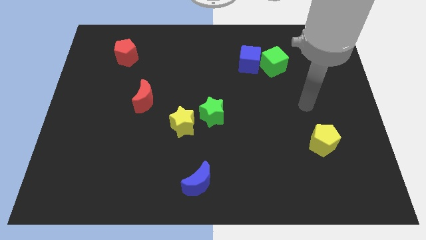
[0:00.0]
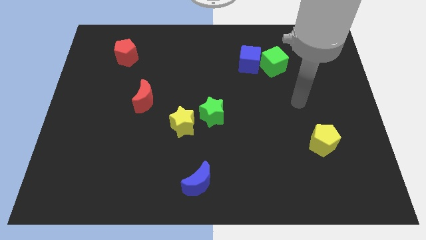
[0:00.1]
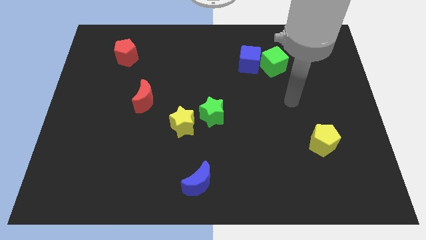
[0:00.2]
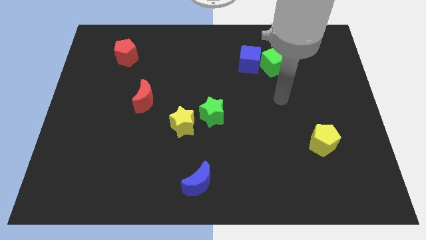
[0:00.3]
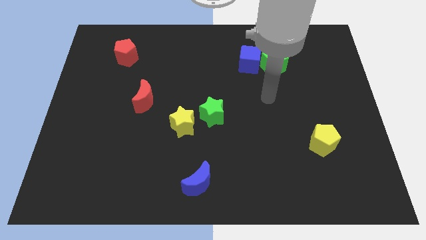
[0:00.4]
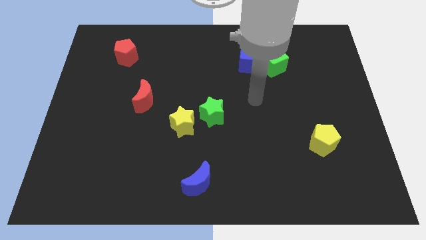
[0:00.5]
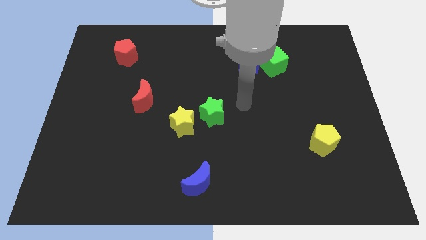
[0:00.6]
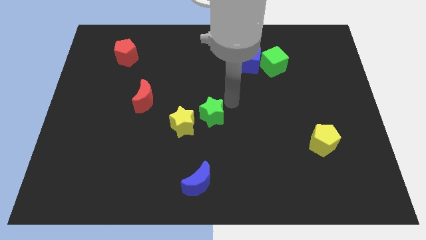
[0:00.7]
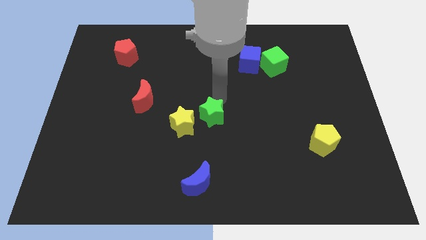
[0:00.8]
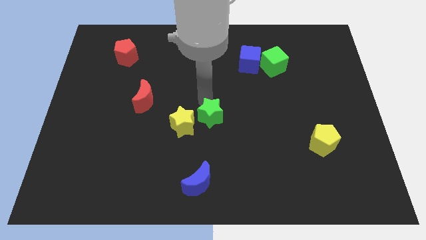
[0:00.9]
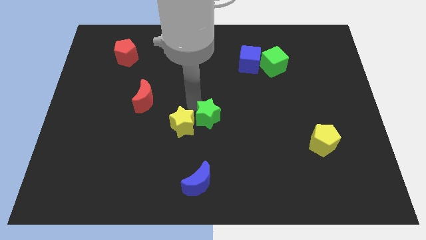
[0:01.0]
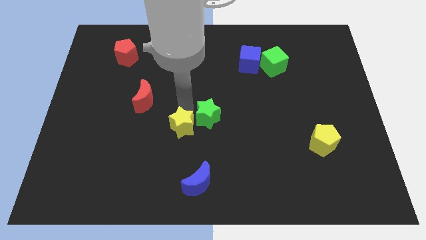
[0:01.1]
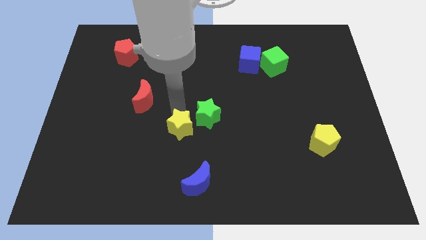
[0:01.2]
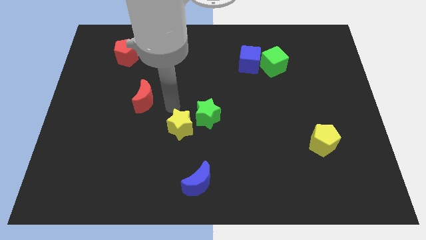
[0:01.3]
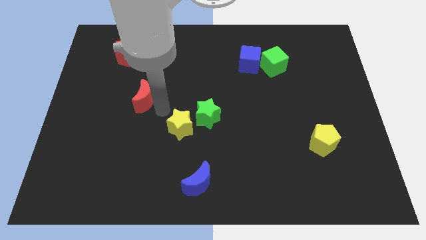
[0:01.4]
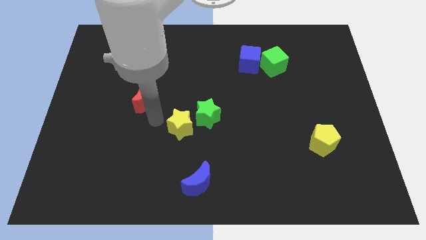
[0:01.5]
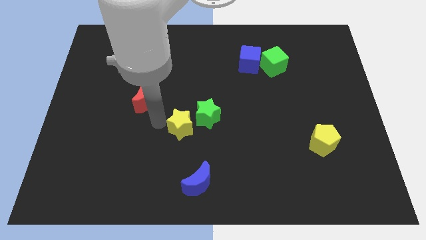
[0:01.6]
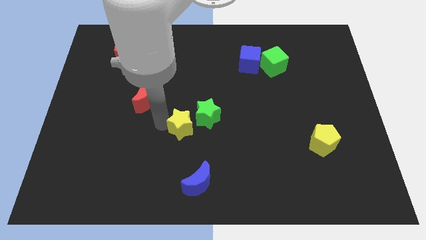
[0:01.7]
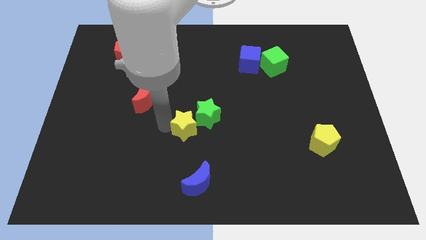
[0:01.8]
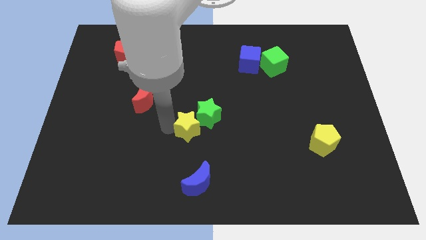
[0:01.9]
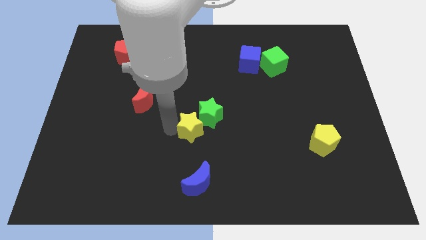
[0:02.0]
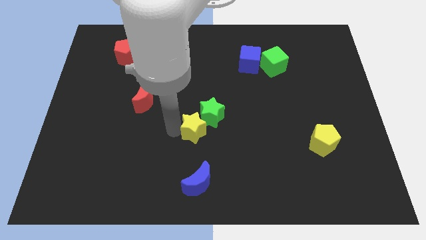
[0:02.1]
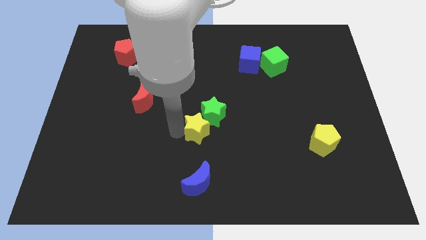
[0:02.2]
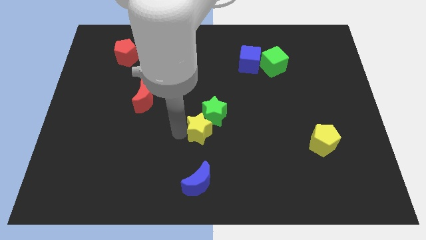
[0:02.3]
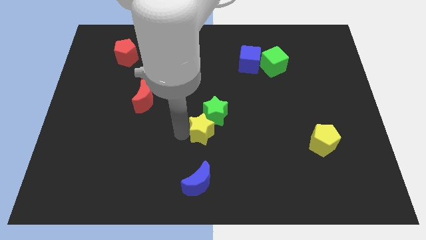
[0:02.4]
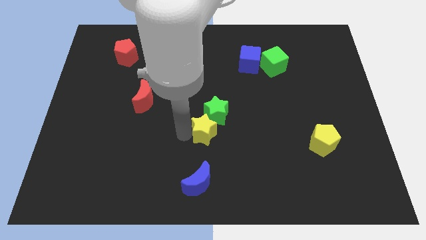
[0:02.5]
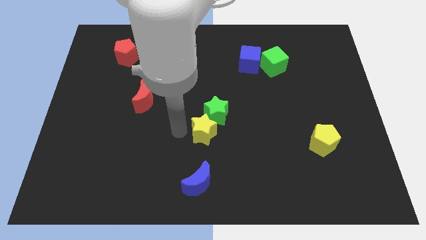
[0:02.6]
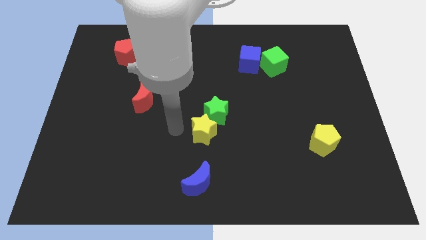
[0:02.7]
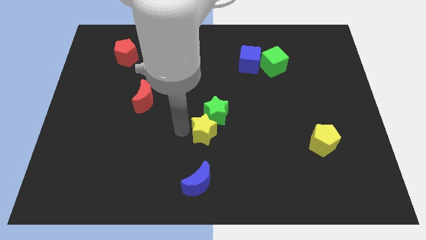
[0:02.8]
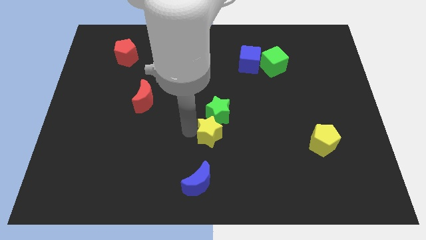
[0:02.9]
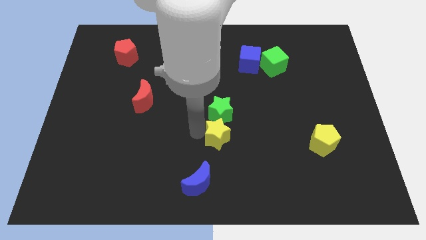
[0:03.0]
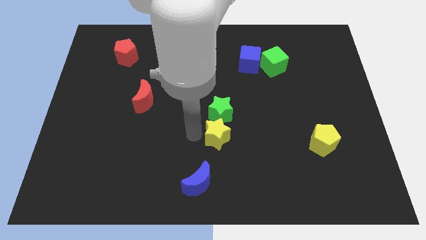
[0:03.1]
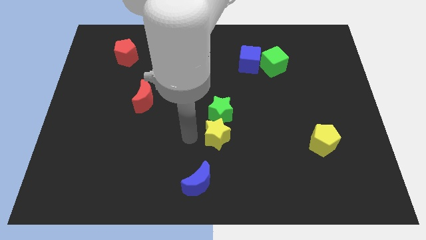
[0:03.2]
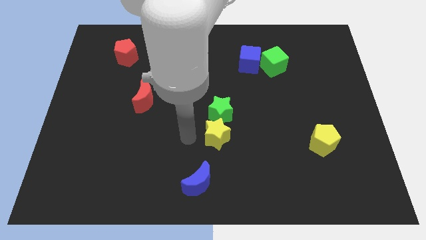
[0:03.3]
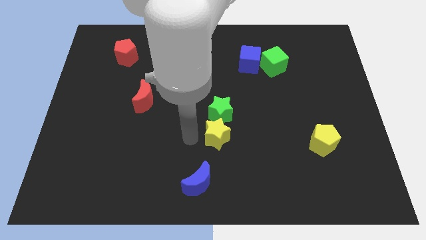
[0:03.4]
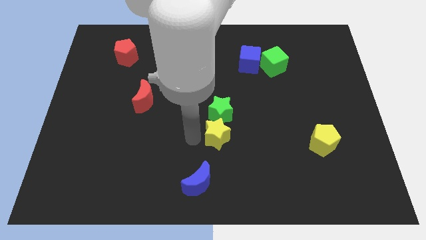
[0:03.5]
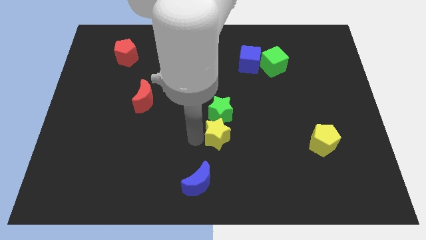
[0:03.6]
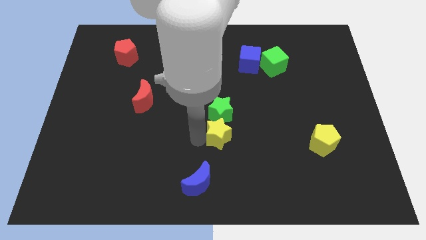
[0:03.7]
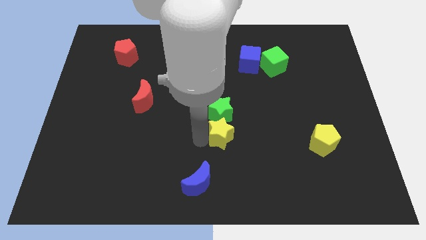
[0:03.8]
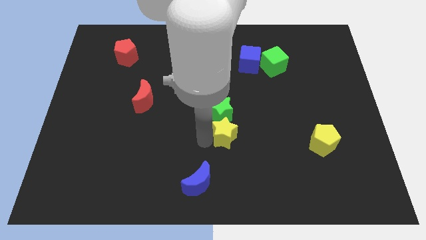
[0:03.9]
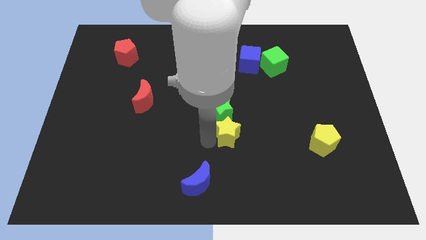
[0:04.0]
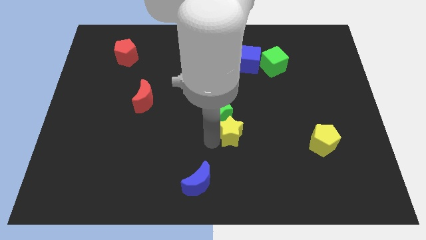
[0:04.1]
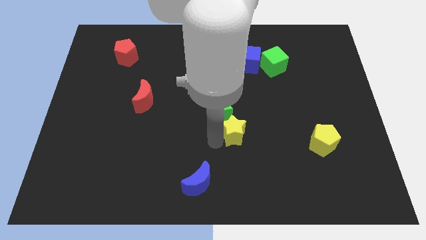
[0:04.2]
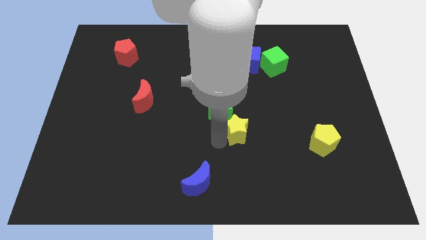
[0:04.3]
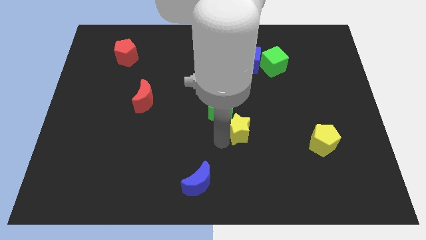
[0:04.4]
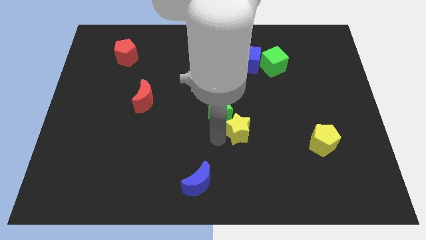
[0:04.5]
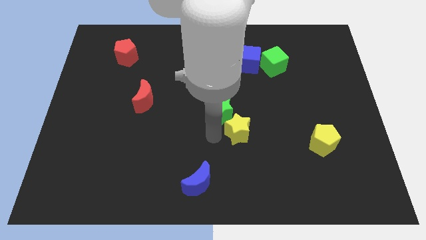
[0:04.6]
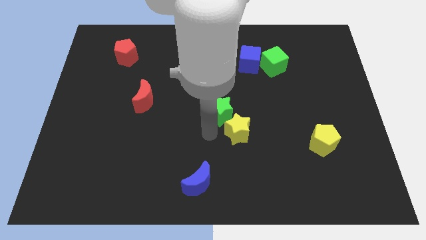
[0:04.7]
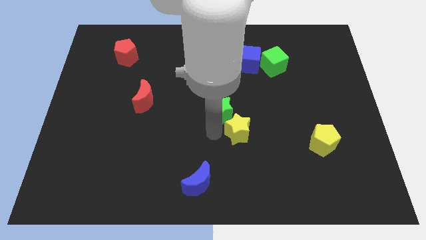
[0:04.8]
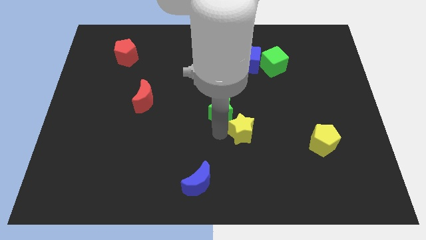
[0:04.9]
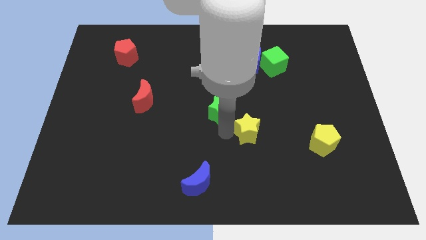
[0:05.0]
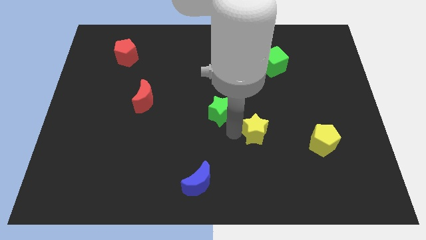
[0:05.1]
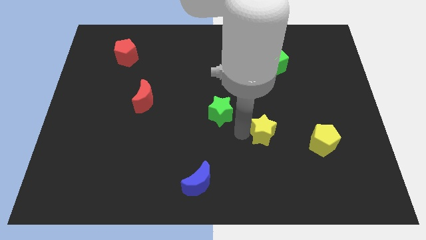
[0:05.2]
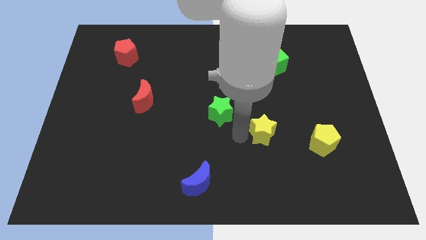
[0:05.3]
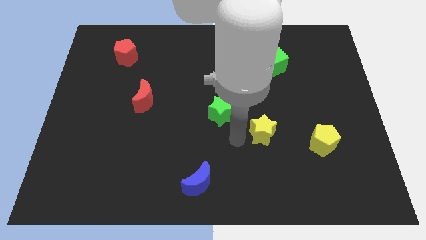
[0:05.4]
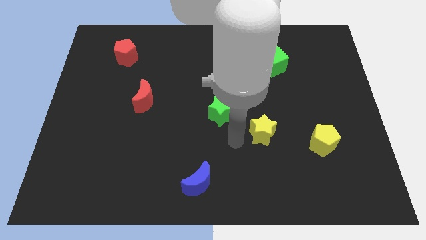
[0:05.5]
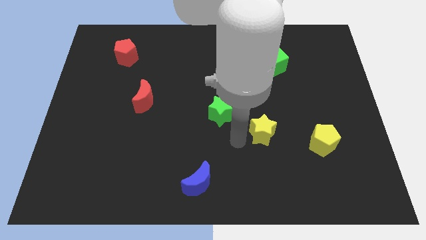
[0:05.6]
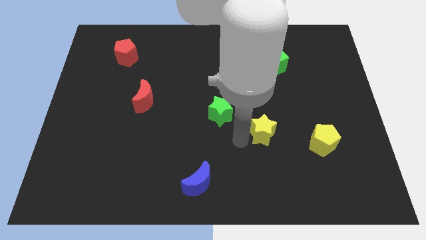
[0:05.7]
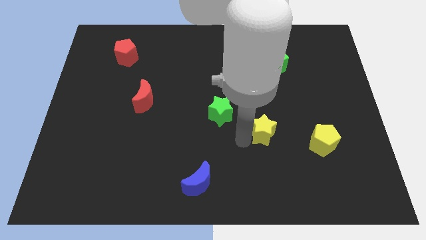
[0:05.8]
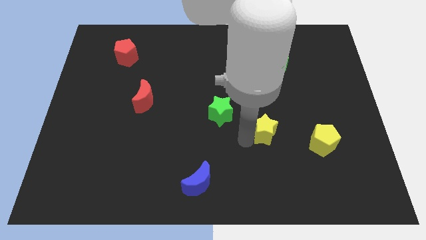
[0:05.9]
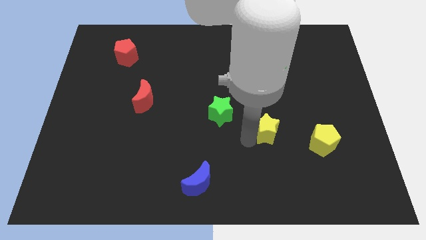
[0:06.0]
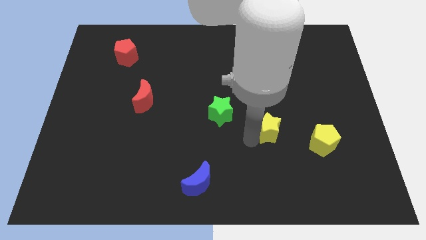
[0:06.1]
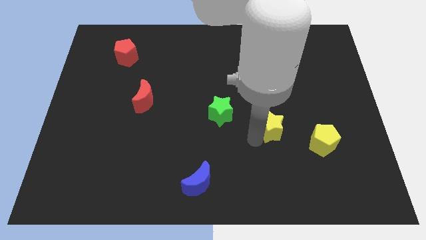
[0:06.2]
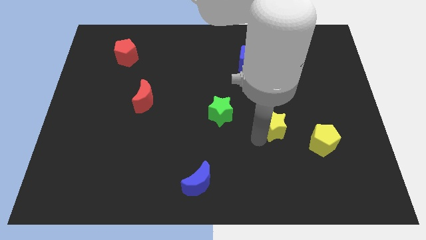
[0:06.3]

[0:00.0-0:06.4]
slide the yellow star to the right

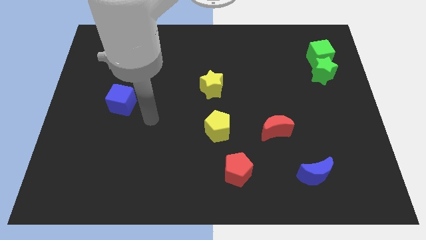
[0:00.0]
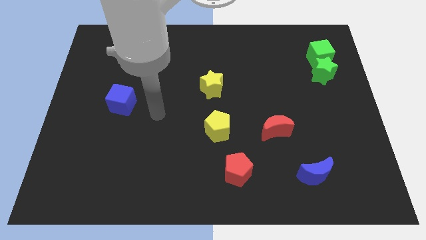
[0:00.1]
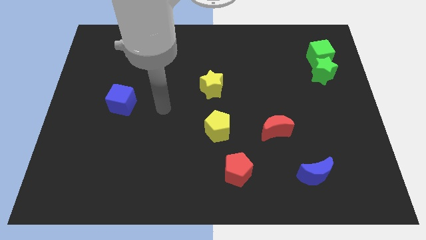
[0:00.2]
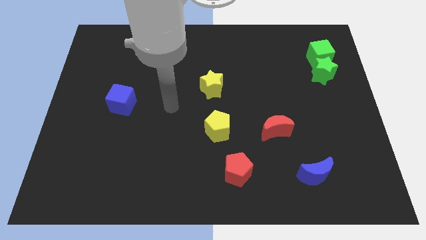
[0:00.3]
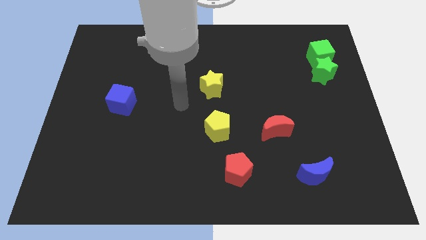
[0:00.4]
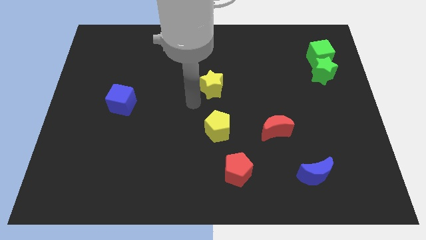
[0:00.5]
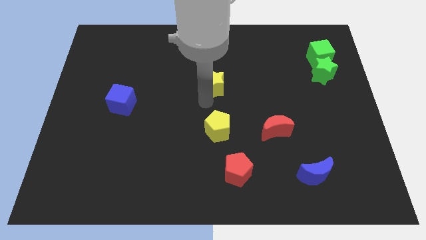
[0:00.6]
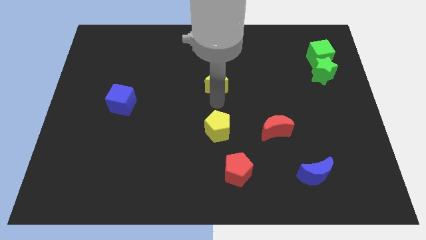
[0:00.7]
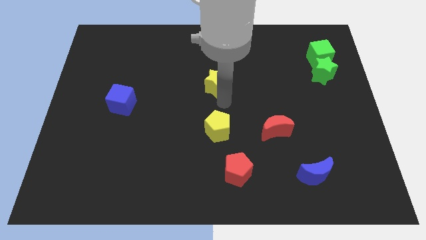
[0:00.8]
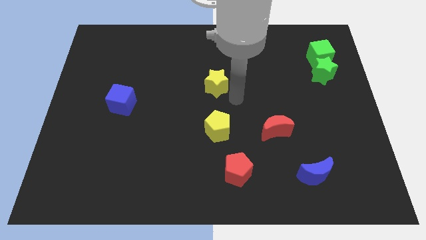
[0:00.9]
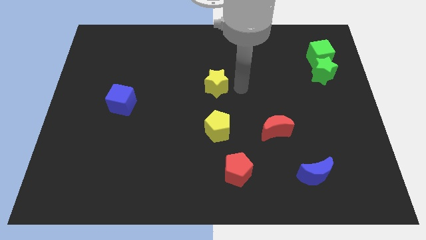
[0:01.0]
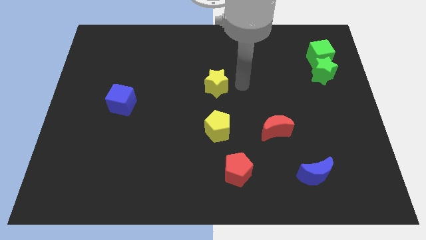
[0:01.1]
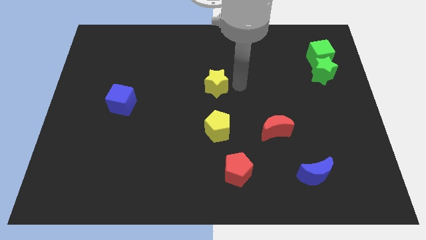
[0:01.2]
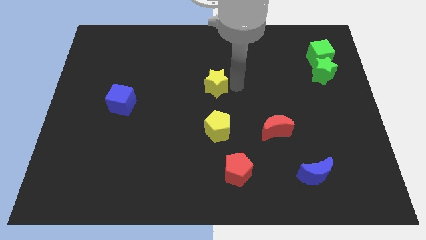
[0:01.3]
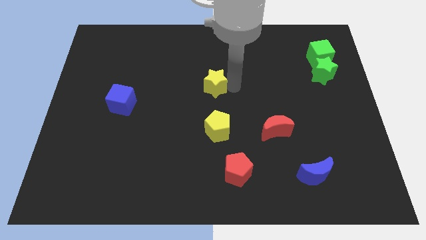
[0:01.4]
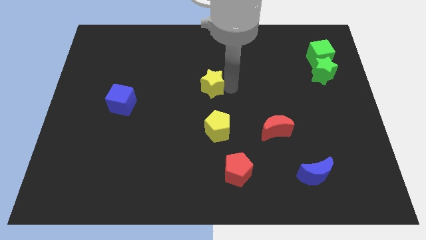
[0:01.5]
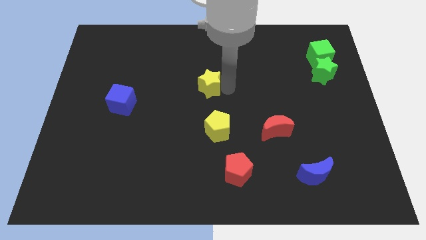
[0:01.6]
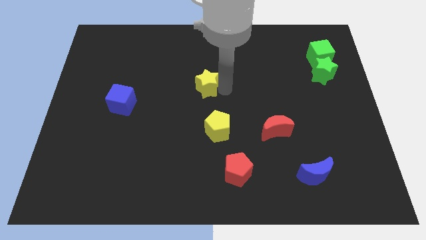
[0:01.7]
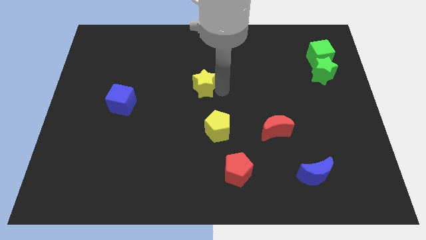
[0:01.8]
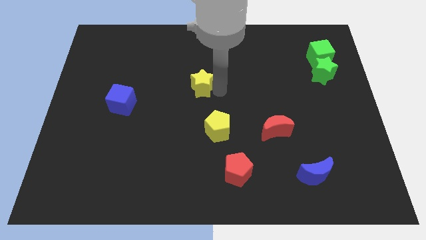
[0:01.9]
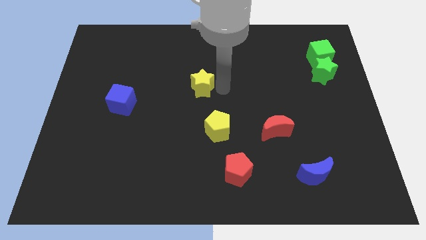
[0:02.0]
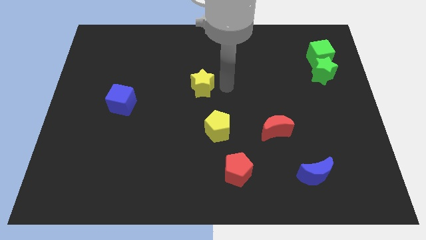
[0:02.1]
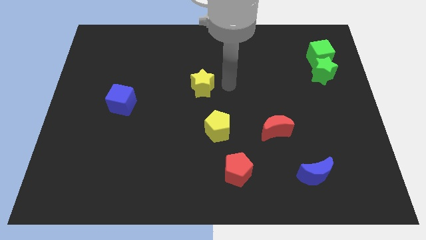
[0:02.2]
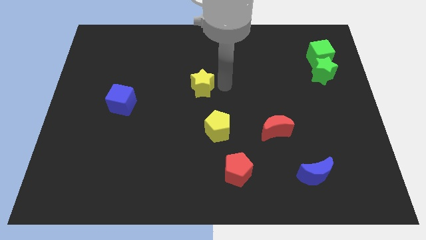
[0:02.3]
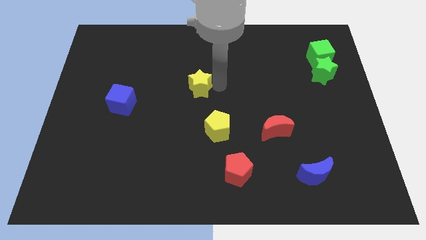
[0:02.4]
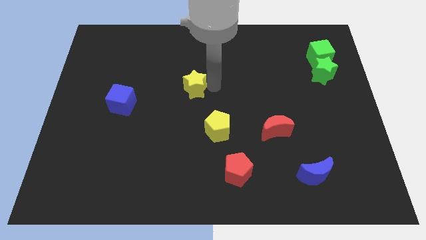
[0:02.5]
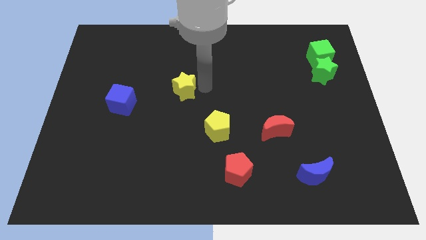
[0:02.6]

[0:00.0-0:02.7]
push the yellow star to the left a little
